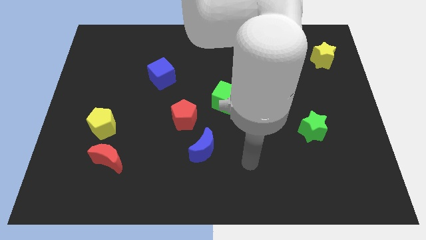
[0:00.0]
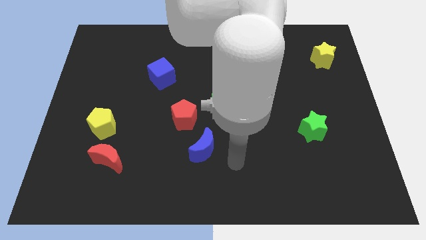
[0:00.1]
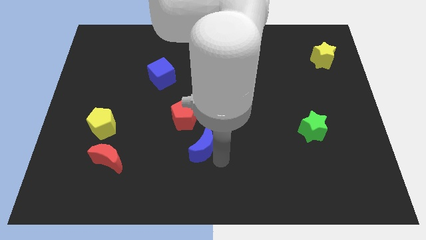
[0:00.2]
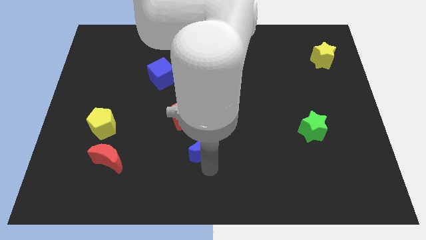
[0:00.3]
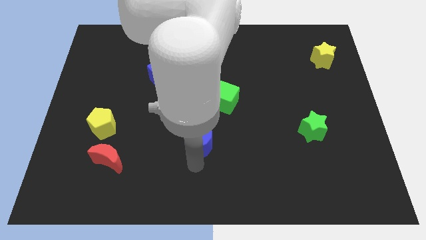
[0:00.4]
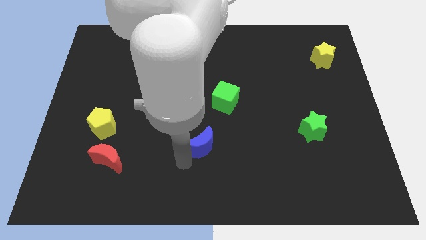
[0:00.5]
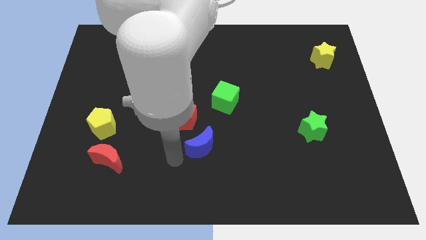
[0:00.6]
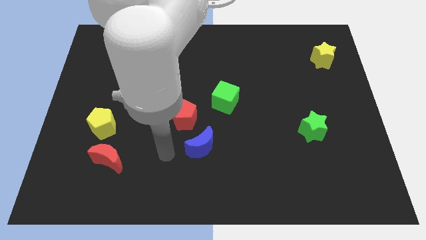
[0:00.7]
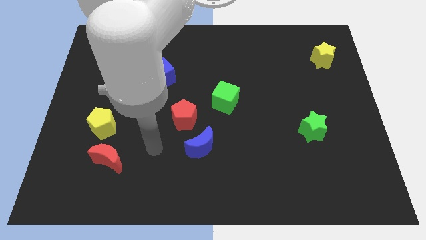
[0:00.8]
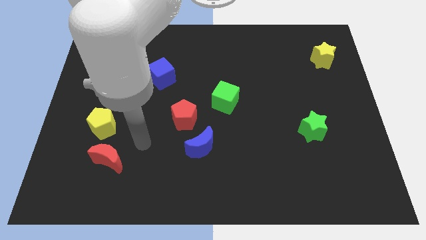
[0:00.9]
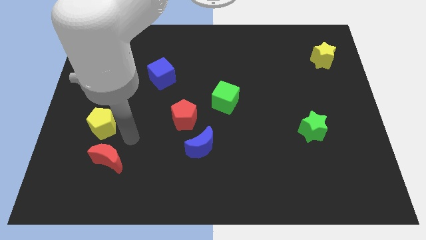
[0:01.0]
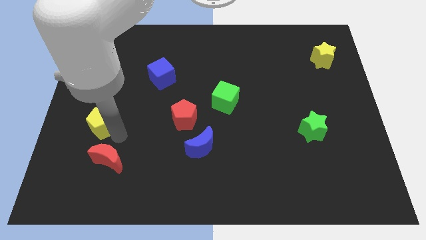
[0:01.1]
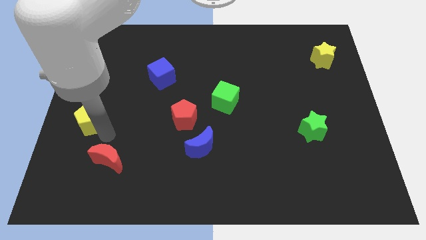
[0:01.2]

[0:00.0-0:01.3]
move the red moon away from the yellow pentagon

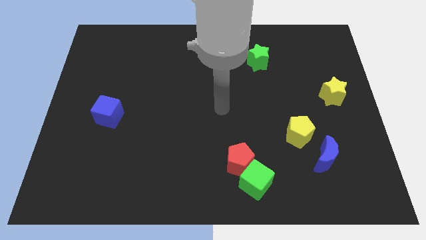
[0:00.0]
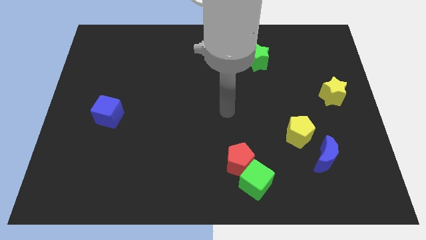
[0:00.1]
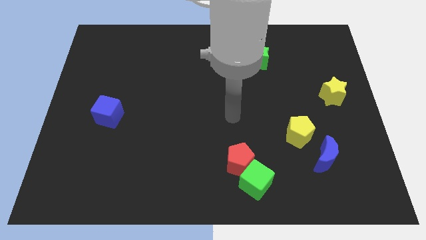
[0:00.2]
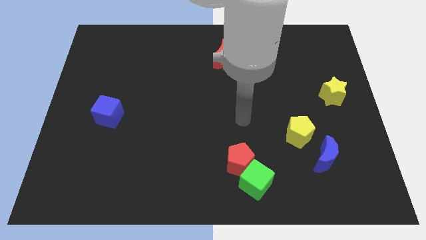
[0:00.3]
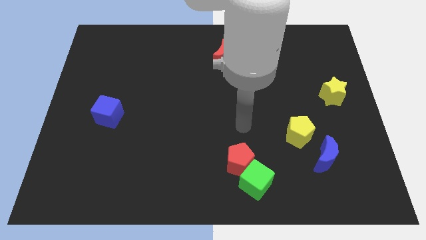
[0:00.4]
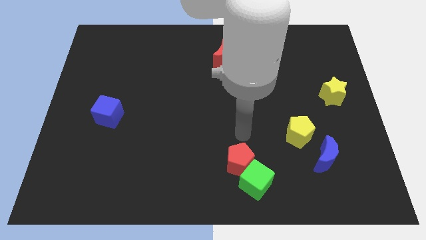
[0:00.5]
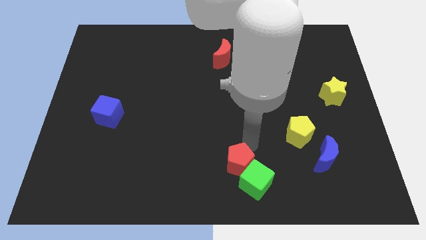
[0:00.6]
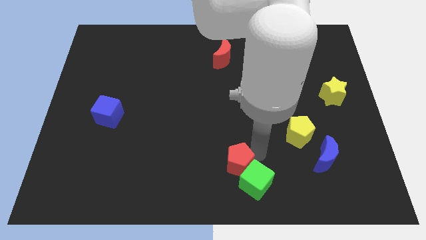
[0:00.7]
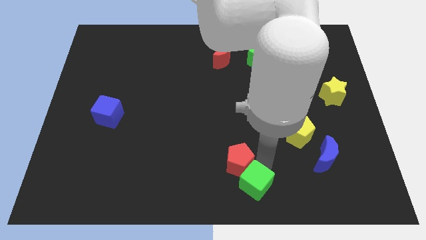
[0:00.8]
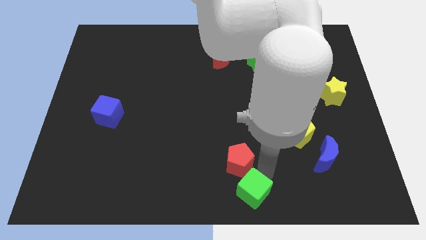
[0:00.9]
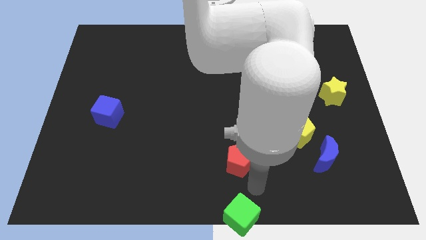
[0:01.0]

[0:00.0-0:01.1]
move the red pentagon away from the green cube

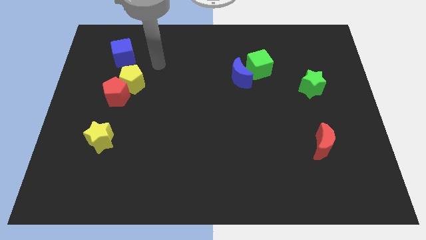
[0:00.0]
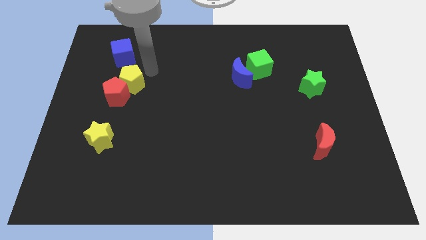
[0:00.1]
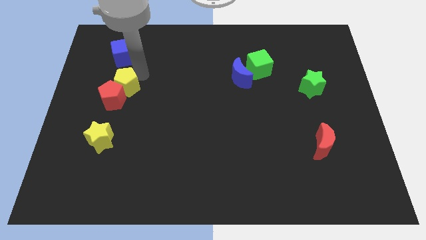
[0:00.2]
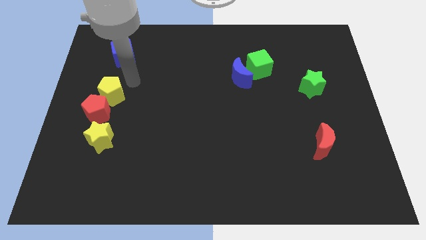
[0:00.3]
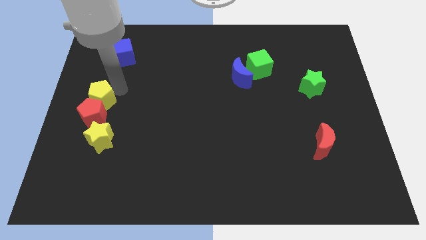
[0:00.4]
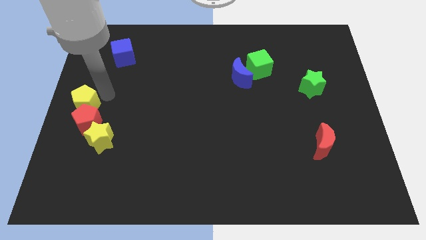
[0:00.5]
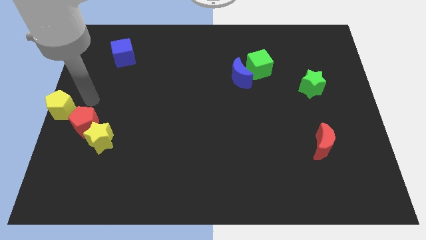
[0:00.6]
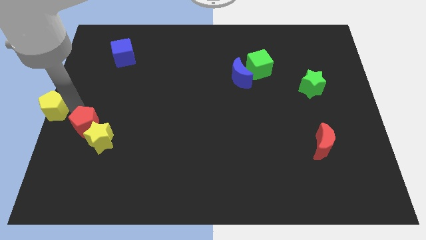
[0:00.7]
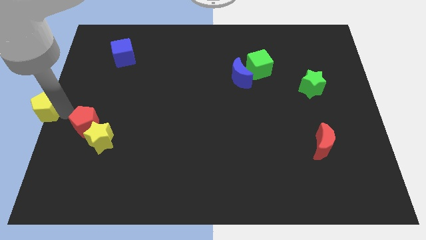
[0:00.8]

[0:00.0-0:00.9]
separate the red pentagon from the yellow pentagon

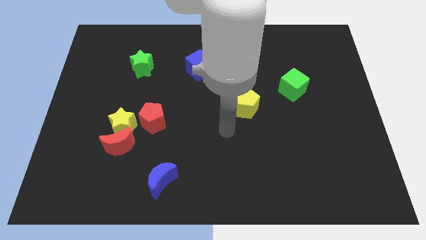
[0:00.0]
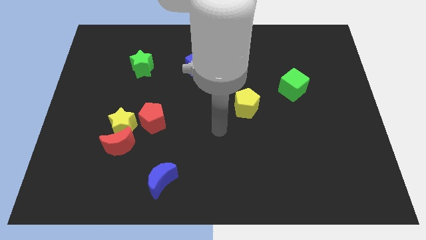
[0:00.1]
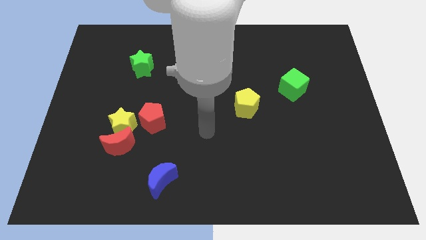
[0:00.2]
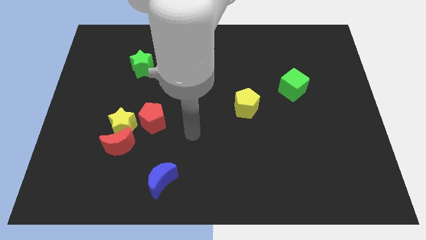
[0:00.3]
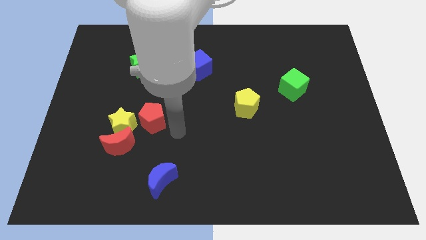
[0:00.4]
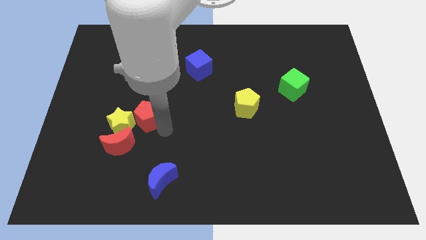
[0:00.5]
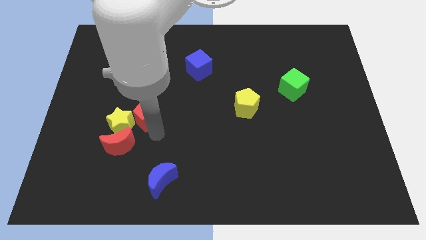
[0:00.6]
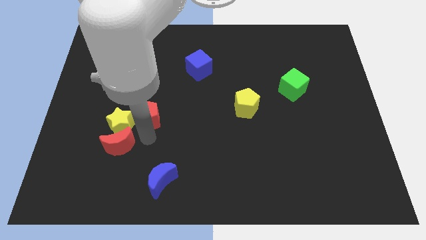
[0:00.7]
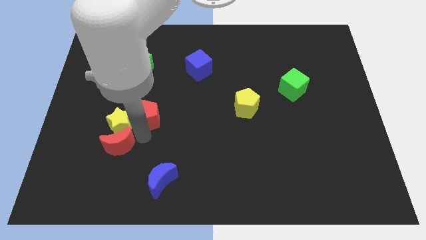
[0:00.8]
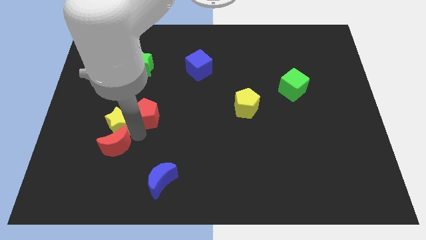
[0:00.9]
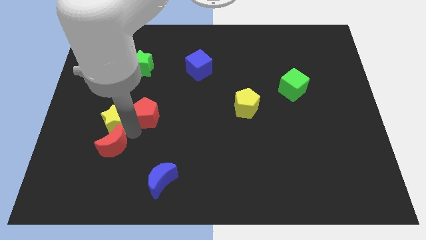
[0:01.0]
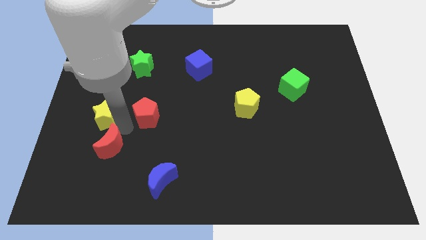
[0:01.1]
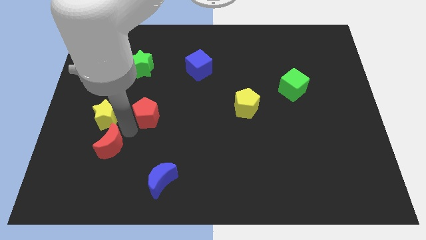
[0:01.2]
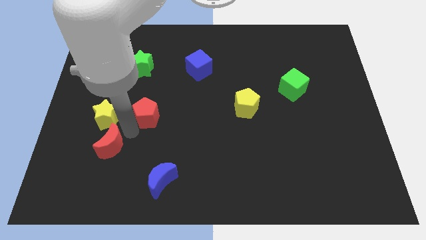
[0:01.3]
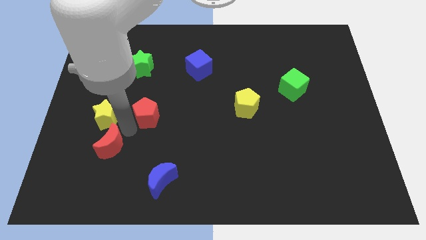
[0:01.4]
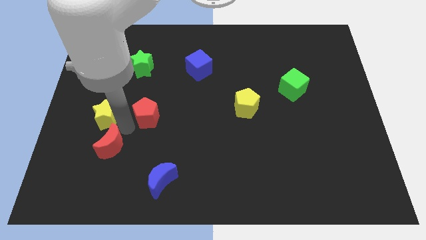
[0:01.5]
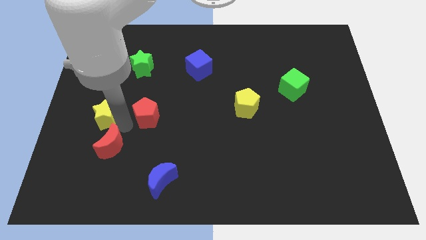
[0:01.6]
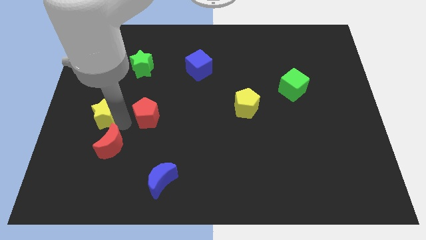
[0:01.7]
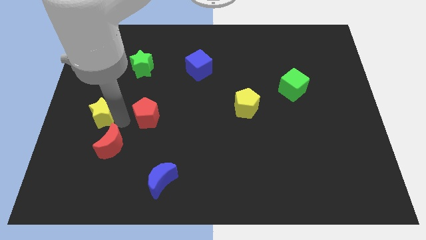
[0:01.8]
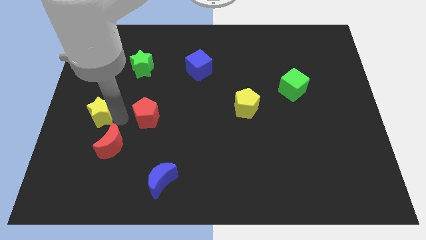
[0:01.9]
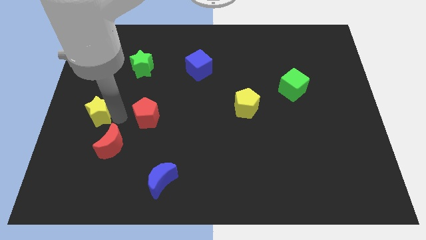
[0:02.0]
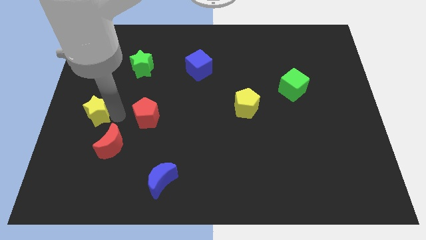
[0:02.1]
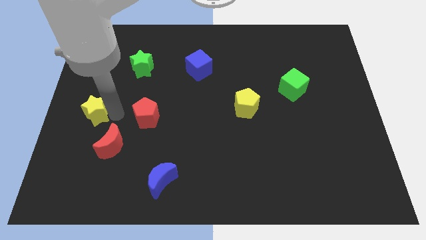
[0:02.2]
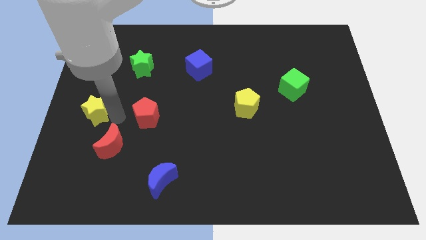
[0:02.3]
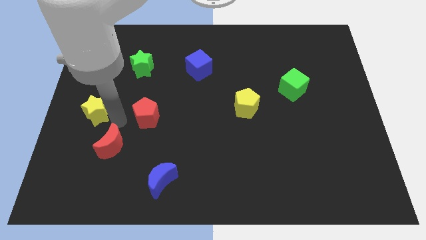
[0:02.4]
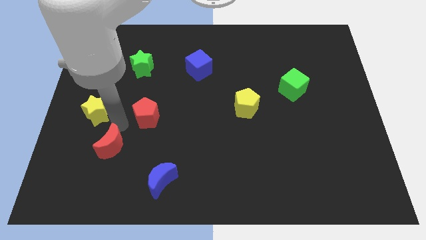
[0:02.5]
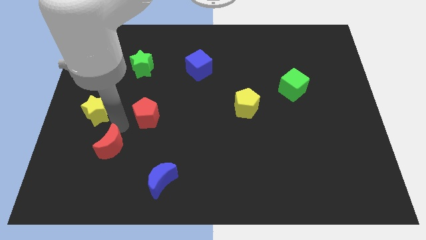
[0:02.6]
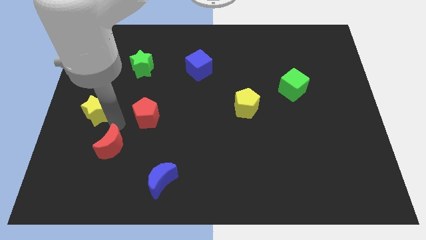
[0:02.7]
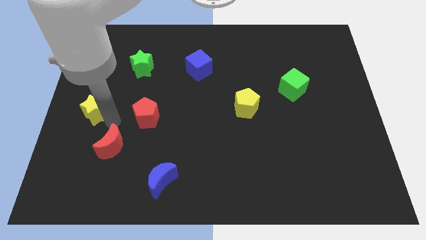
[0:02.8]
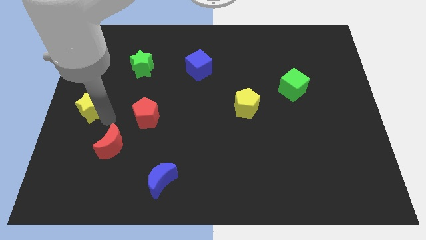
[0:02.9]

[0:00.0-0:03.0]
separate the yellow star from the red moon and red pentagon

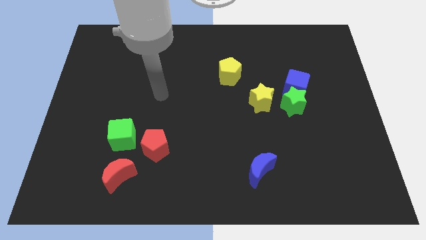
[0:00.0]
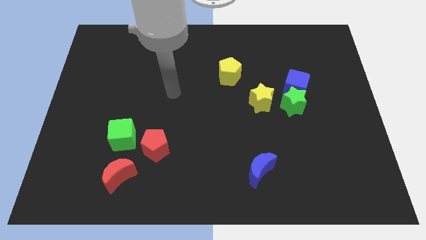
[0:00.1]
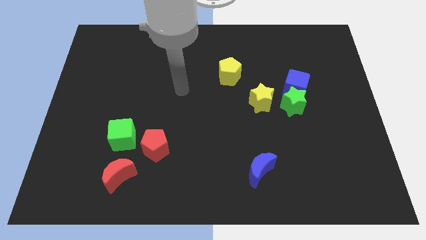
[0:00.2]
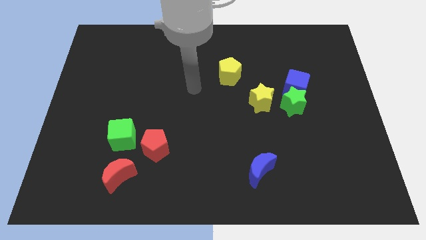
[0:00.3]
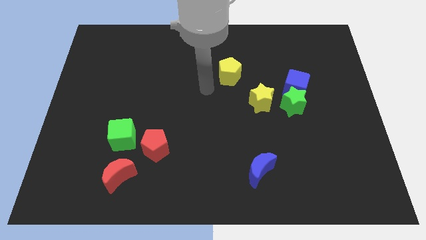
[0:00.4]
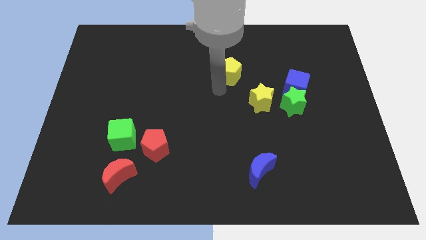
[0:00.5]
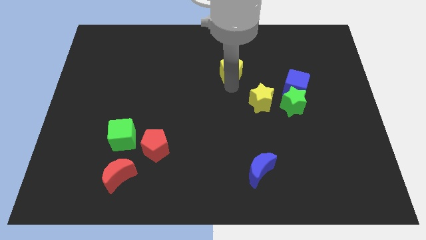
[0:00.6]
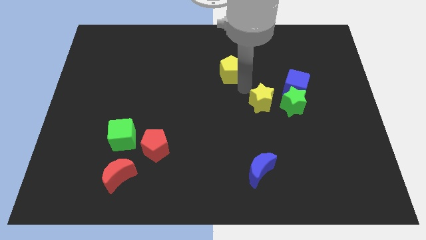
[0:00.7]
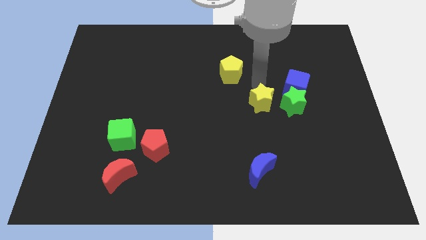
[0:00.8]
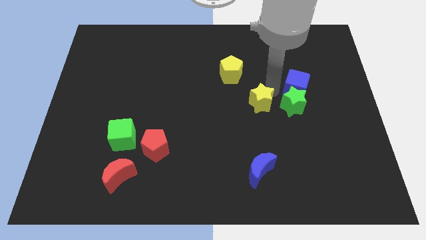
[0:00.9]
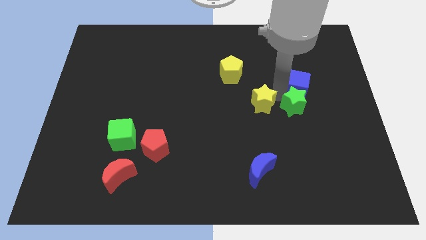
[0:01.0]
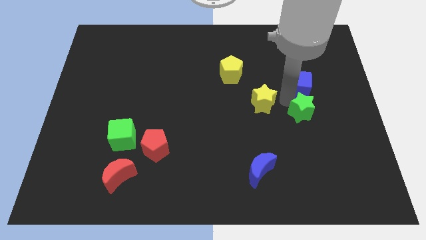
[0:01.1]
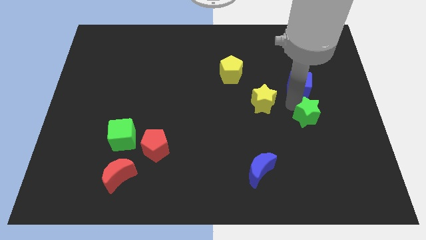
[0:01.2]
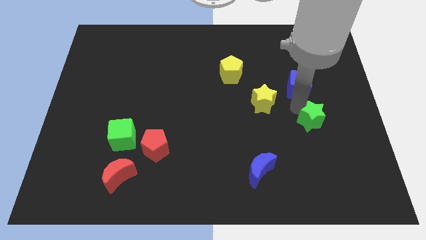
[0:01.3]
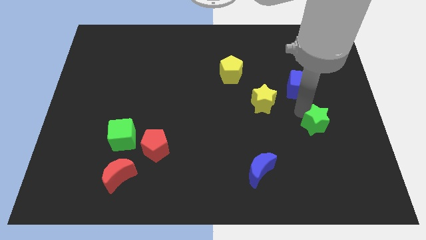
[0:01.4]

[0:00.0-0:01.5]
move the green star away from the blue cube and yellow star

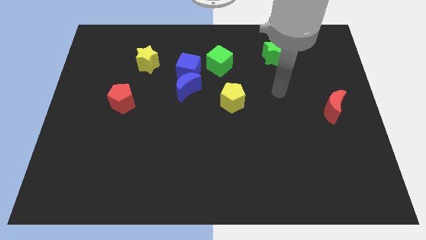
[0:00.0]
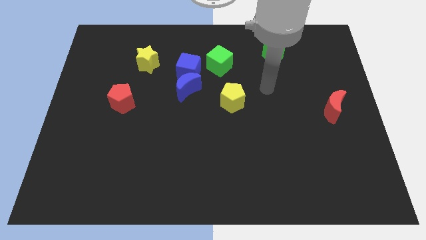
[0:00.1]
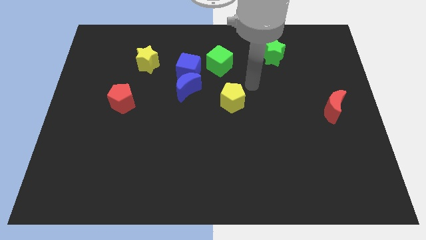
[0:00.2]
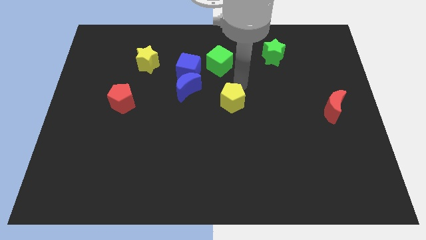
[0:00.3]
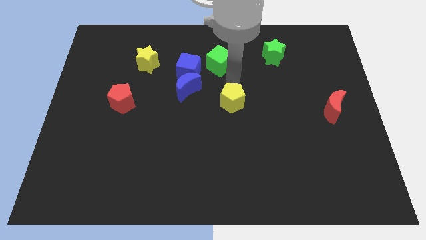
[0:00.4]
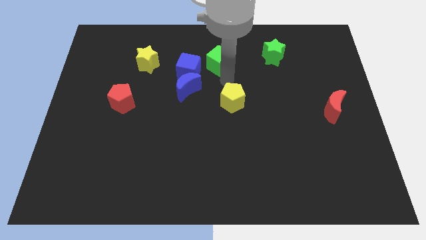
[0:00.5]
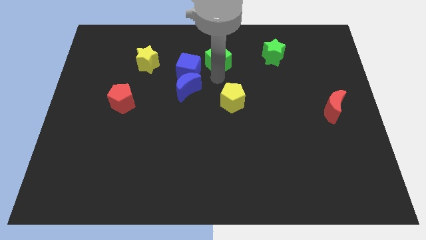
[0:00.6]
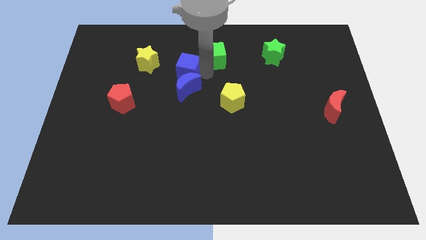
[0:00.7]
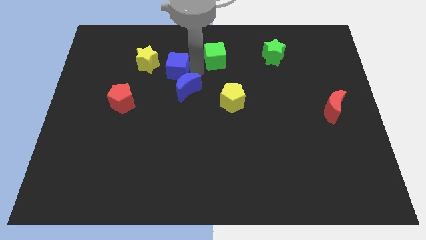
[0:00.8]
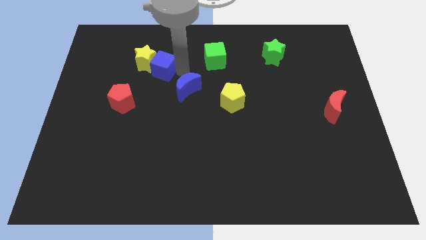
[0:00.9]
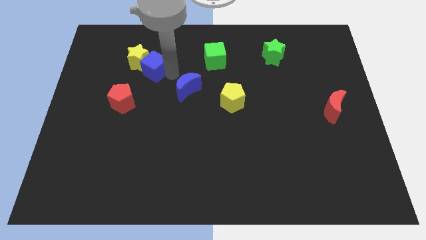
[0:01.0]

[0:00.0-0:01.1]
separate the blue moon from the blue cube

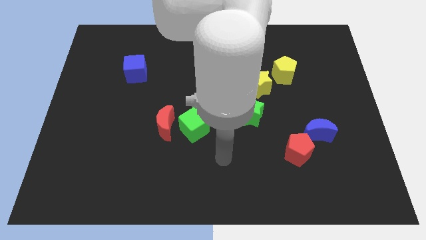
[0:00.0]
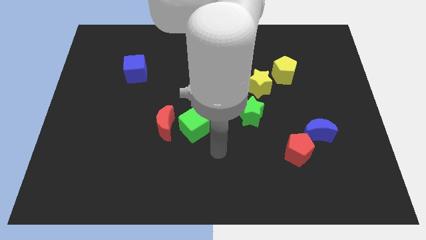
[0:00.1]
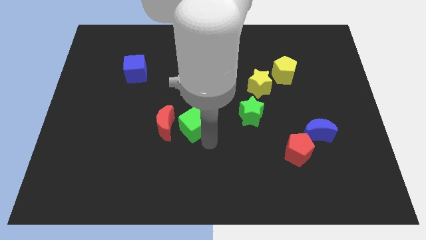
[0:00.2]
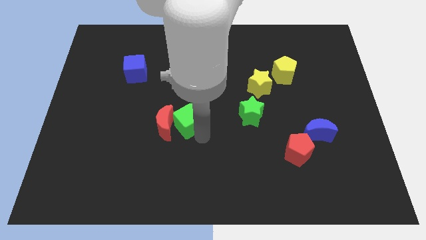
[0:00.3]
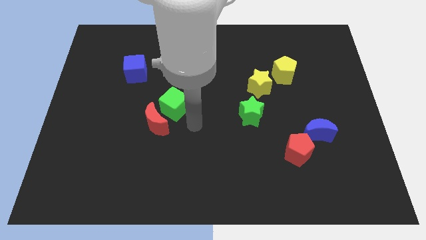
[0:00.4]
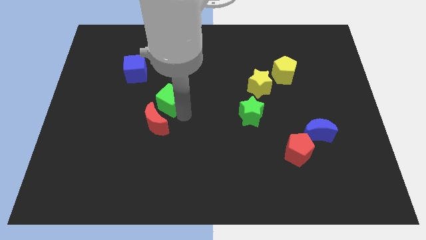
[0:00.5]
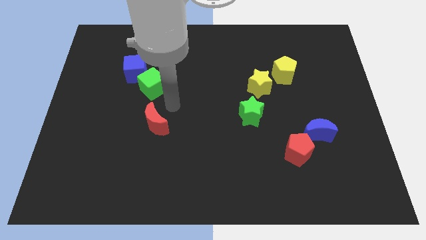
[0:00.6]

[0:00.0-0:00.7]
move the red moon away from the green cube
